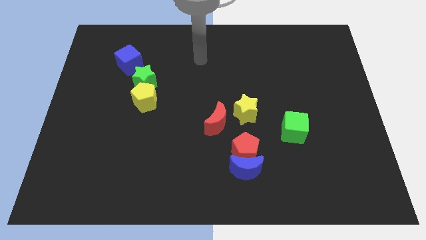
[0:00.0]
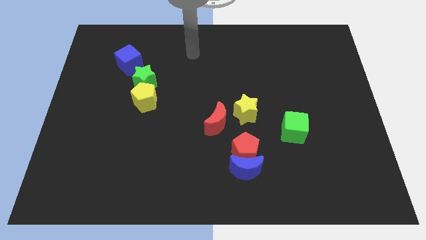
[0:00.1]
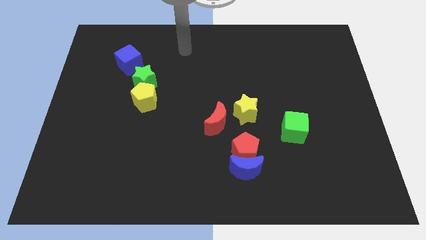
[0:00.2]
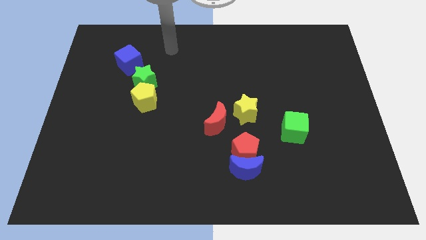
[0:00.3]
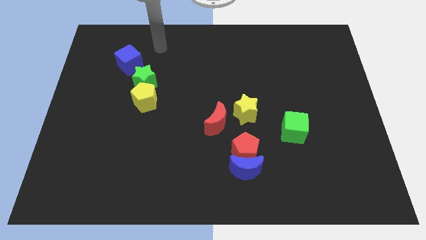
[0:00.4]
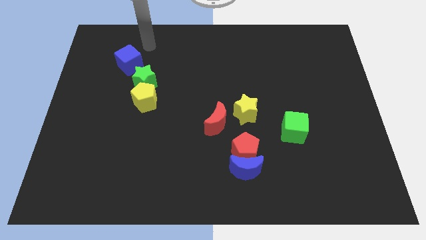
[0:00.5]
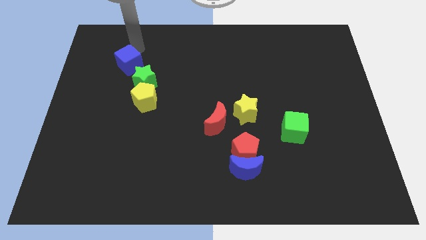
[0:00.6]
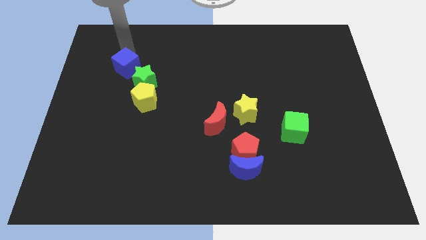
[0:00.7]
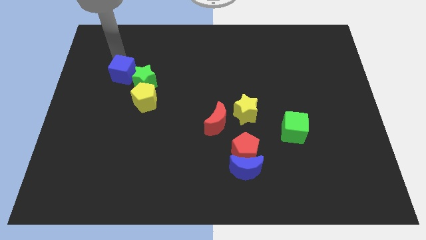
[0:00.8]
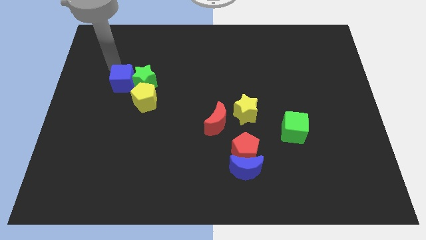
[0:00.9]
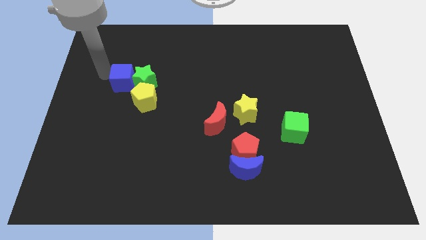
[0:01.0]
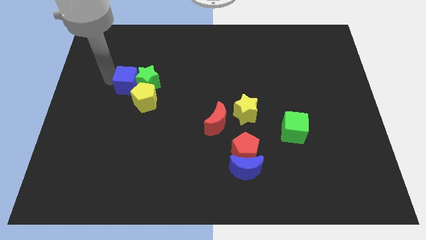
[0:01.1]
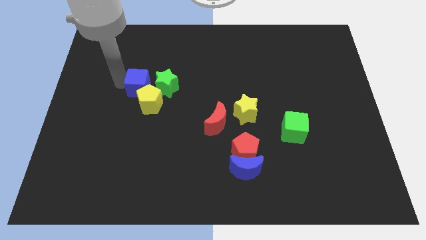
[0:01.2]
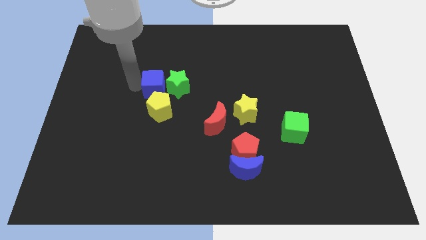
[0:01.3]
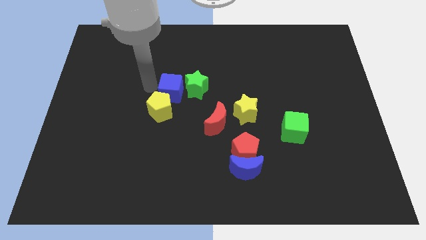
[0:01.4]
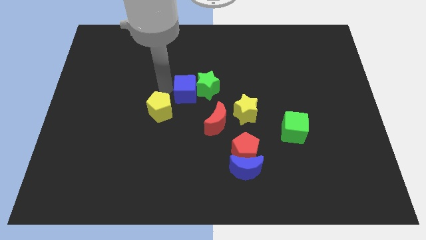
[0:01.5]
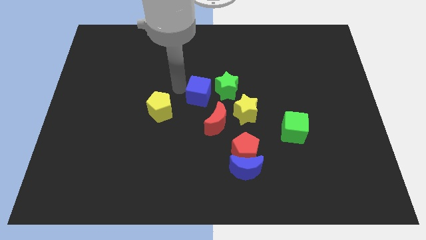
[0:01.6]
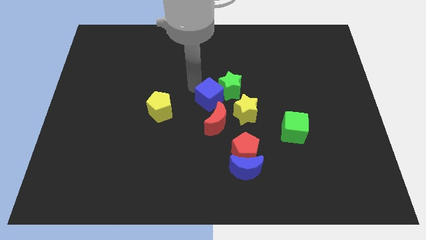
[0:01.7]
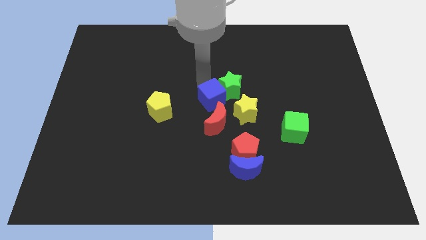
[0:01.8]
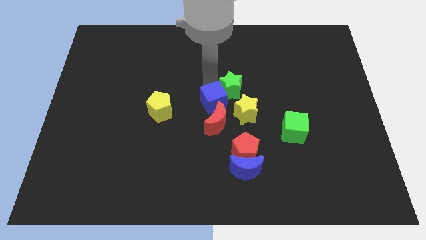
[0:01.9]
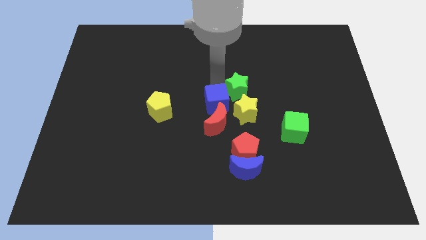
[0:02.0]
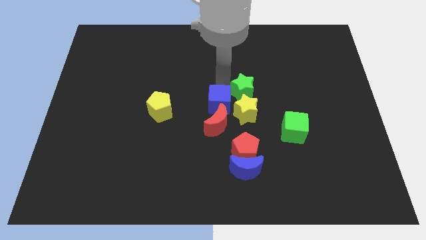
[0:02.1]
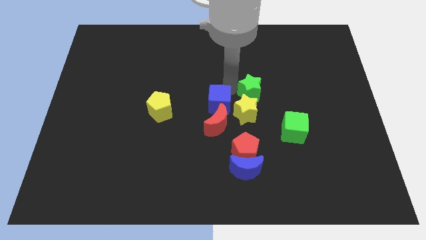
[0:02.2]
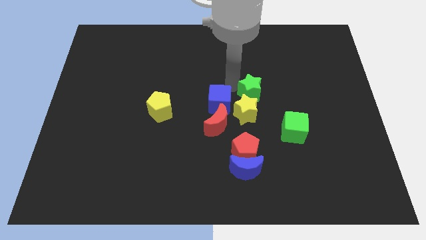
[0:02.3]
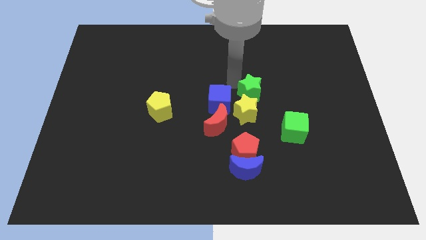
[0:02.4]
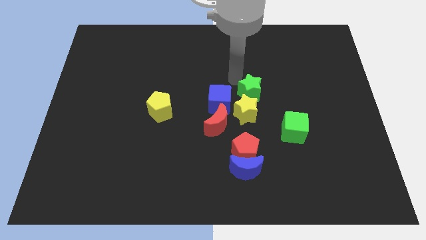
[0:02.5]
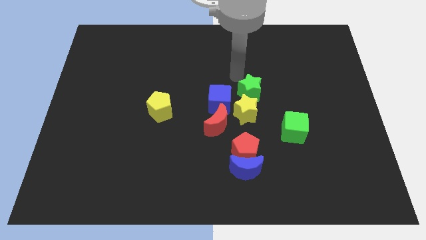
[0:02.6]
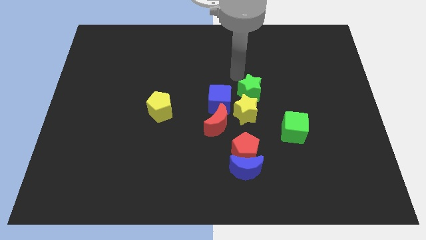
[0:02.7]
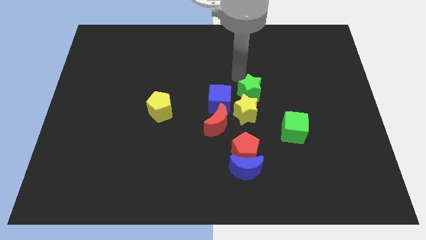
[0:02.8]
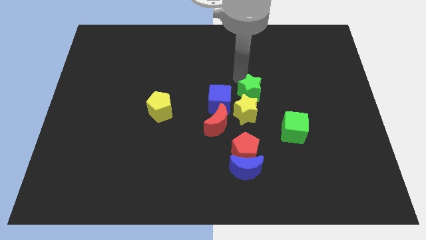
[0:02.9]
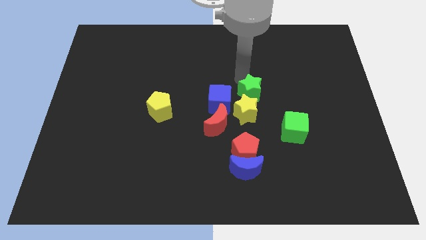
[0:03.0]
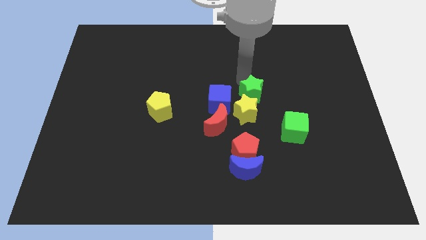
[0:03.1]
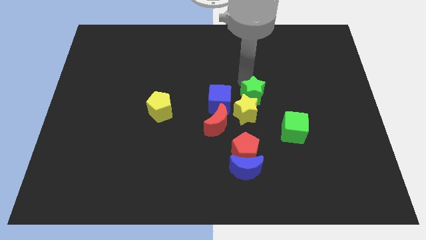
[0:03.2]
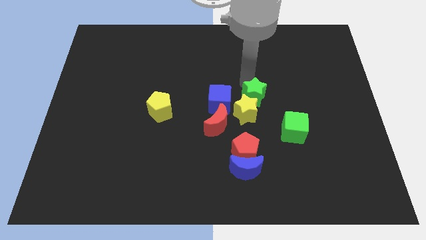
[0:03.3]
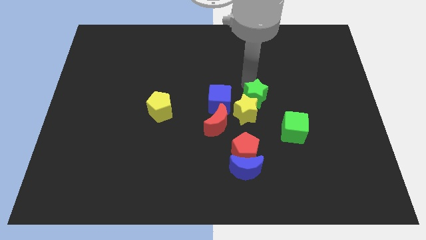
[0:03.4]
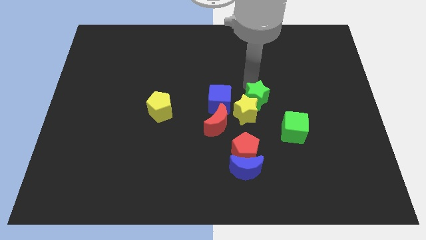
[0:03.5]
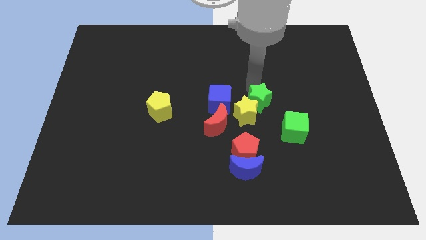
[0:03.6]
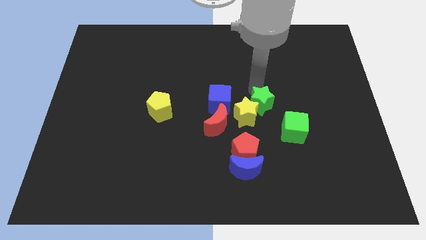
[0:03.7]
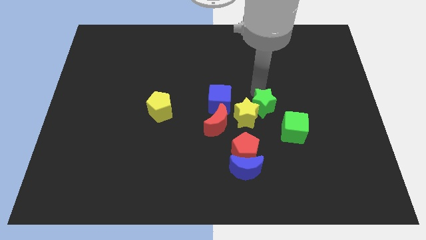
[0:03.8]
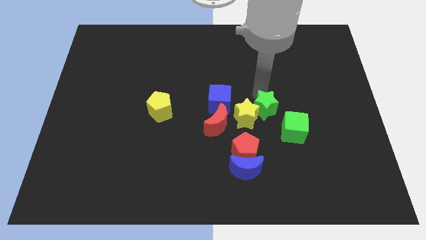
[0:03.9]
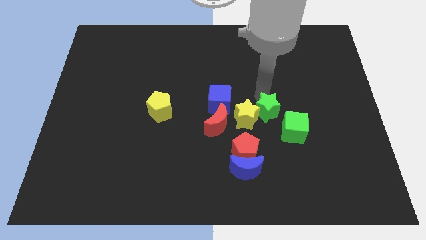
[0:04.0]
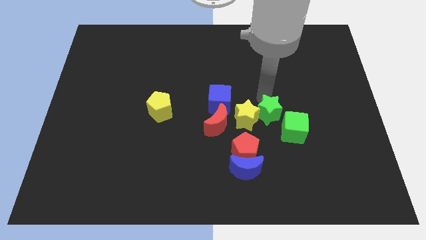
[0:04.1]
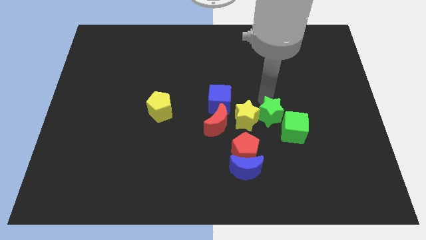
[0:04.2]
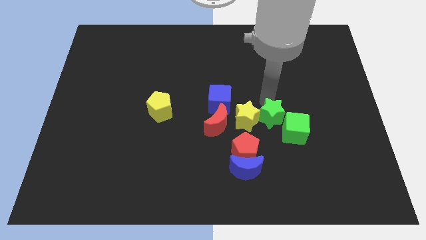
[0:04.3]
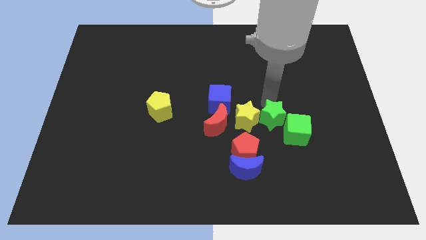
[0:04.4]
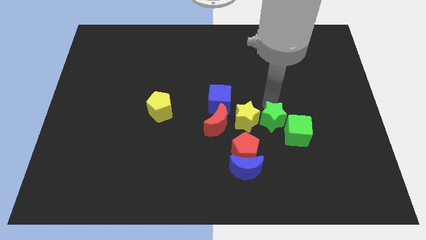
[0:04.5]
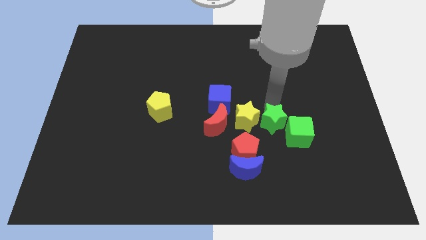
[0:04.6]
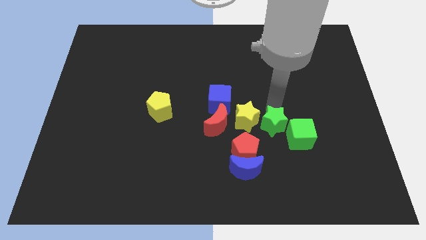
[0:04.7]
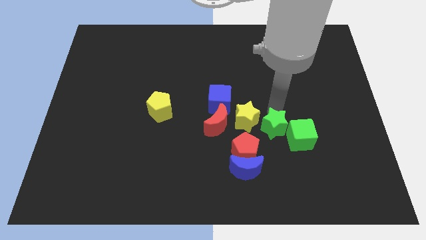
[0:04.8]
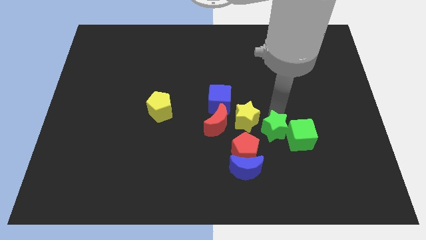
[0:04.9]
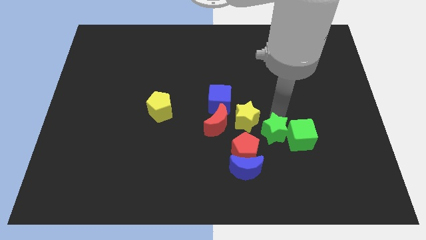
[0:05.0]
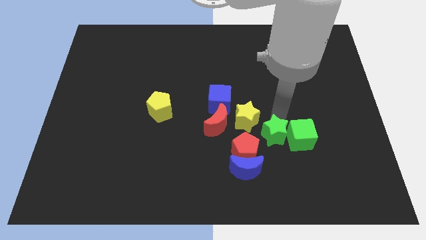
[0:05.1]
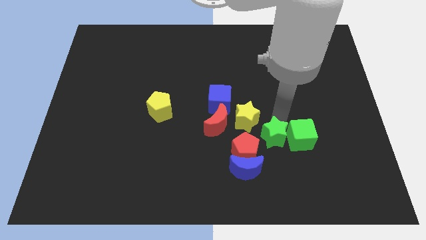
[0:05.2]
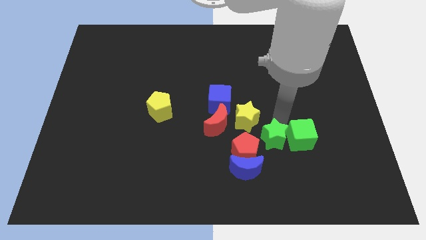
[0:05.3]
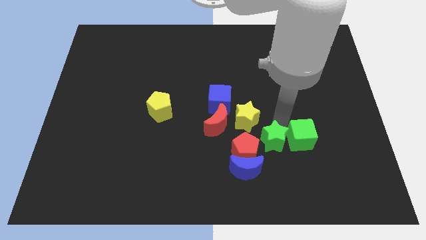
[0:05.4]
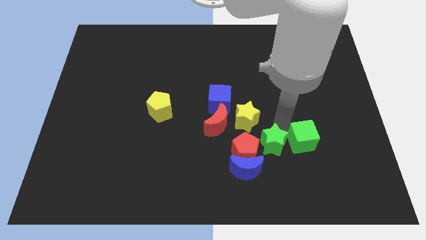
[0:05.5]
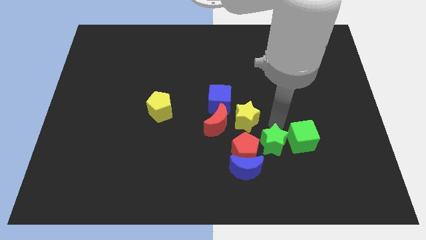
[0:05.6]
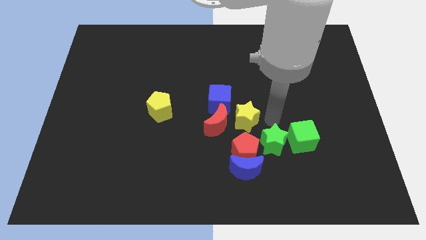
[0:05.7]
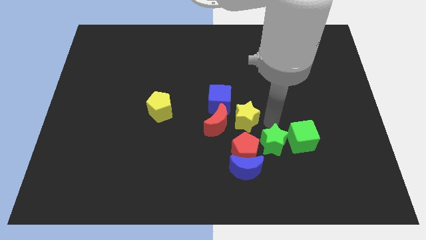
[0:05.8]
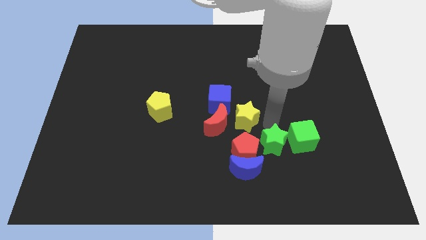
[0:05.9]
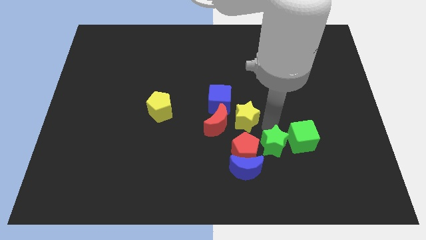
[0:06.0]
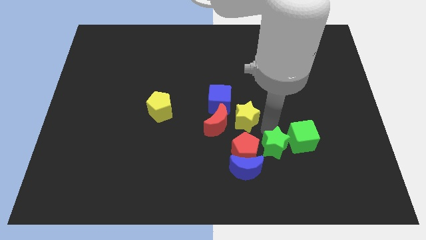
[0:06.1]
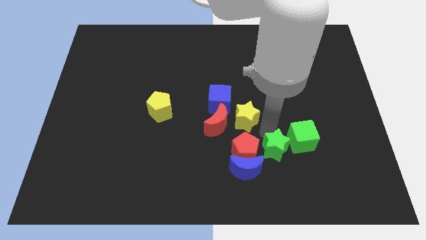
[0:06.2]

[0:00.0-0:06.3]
push the green star to the bottom right side of the red pentagon
